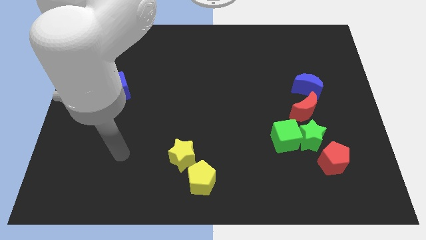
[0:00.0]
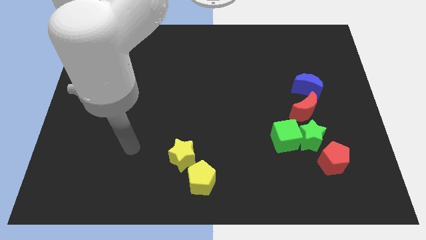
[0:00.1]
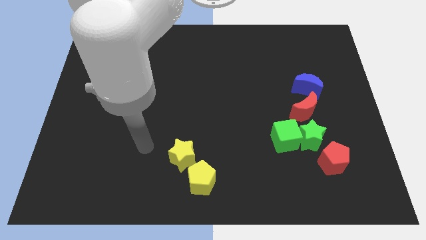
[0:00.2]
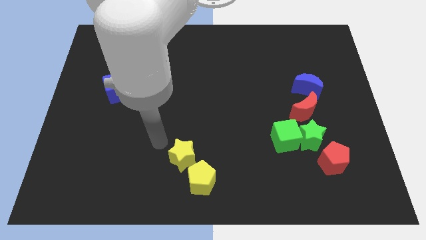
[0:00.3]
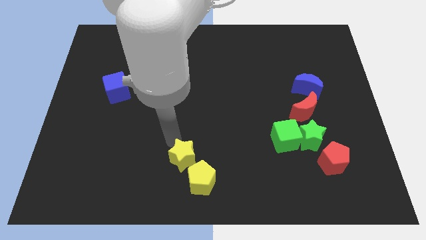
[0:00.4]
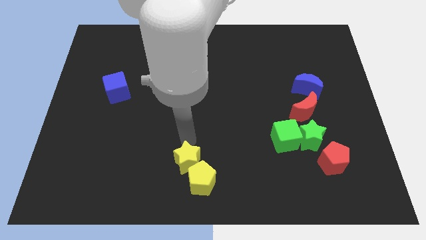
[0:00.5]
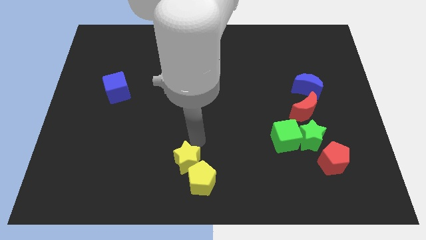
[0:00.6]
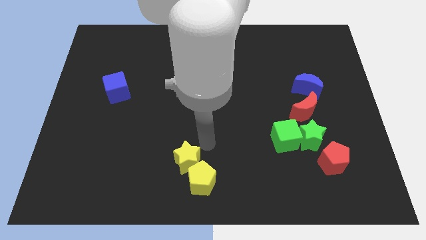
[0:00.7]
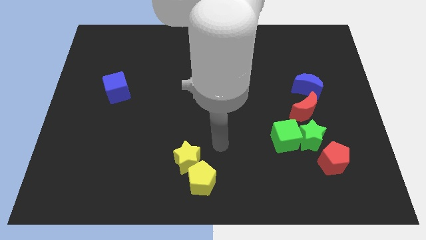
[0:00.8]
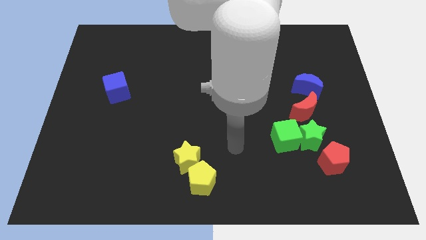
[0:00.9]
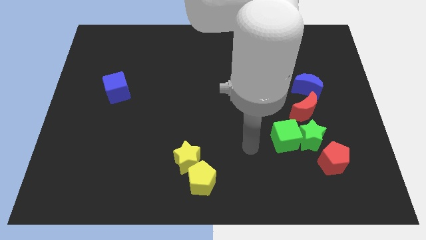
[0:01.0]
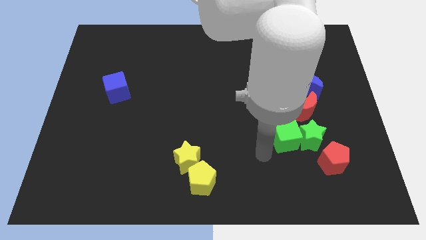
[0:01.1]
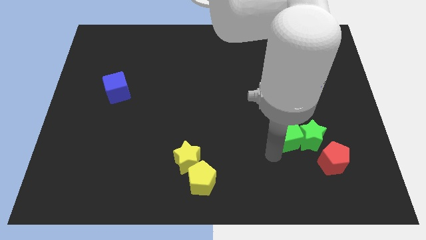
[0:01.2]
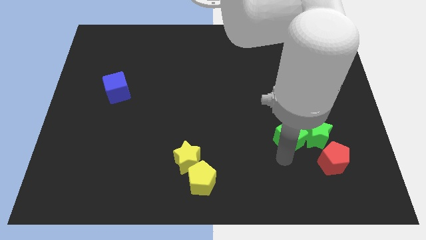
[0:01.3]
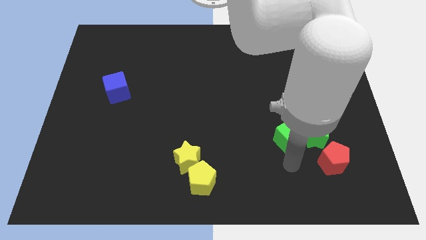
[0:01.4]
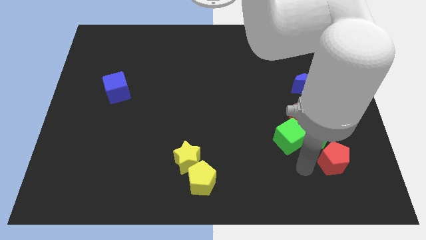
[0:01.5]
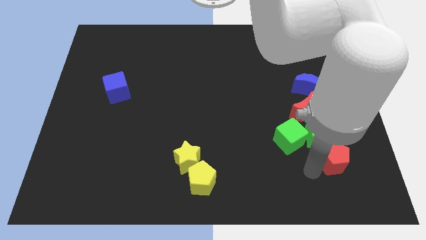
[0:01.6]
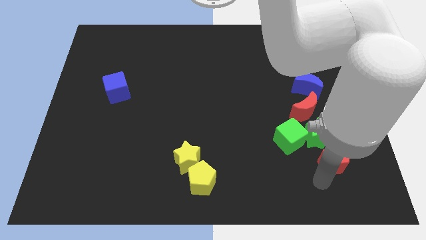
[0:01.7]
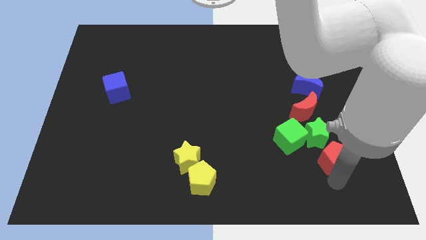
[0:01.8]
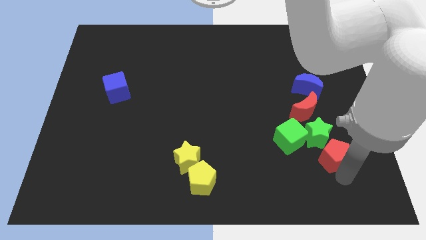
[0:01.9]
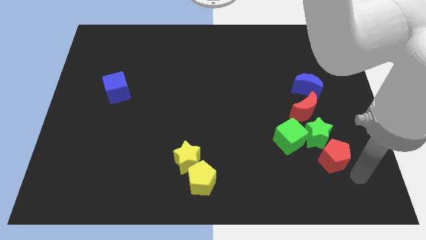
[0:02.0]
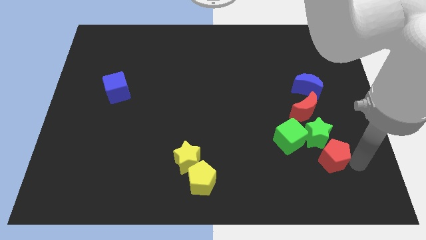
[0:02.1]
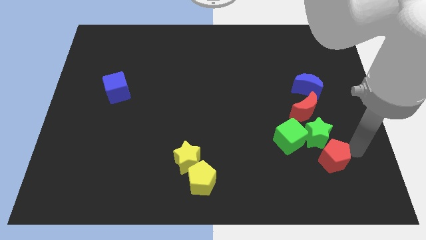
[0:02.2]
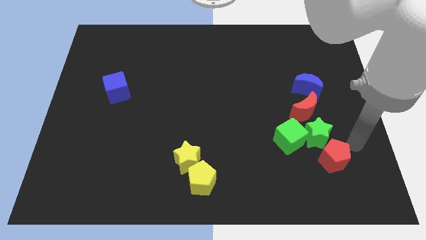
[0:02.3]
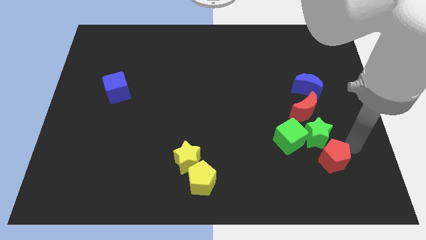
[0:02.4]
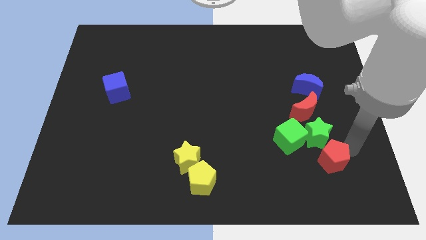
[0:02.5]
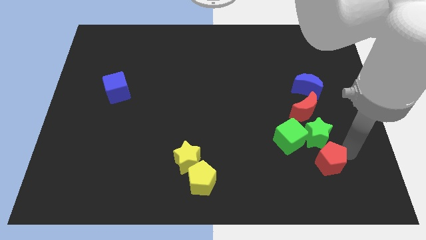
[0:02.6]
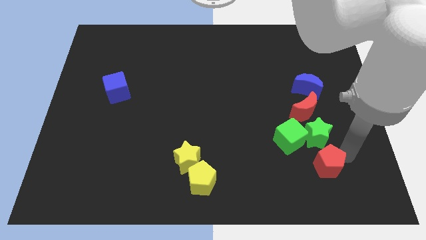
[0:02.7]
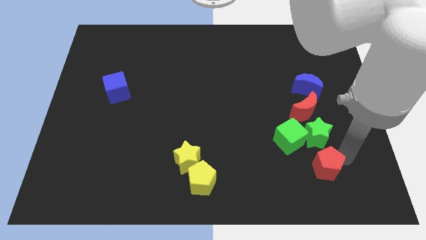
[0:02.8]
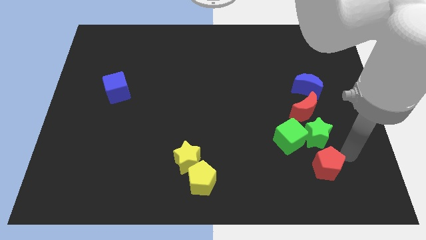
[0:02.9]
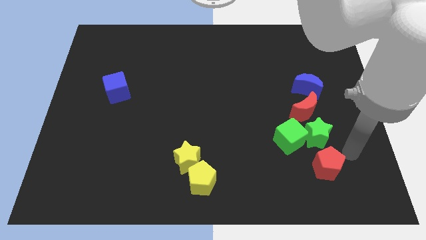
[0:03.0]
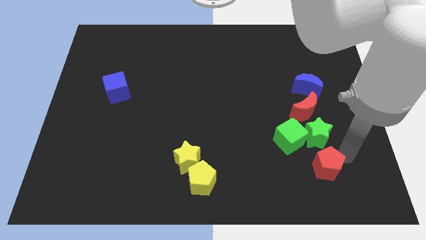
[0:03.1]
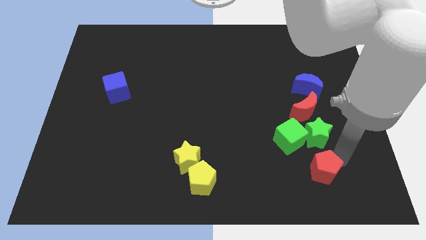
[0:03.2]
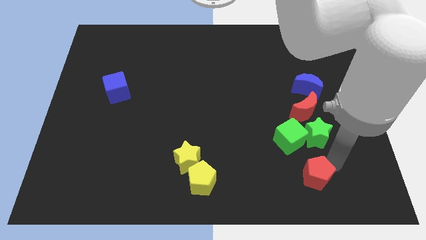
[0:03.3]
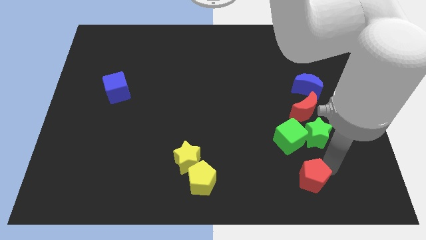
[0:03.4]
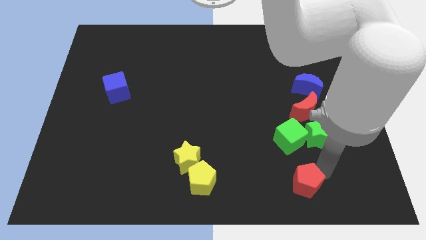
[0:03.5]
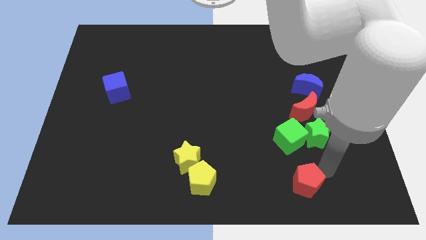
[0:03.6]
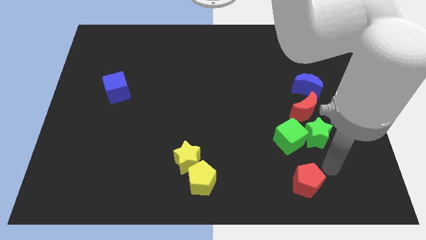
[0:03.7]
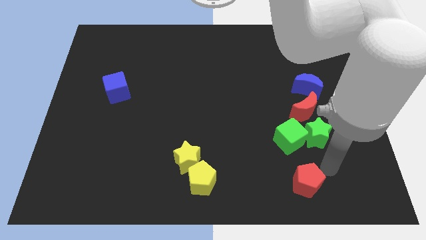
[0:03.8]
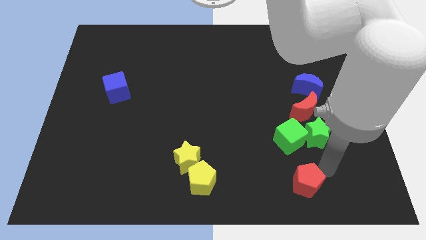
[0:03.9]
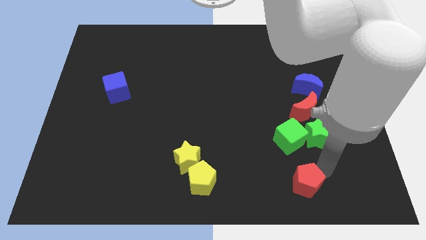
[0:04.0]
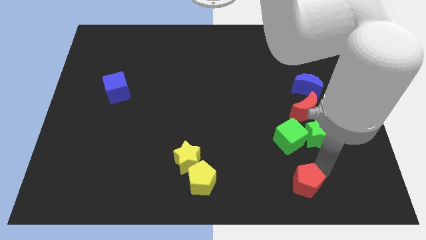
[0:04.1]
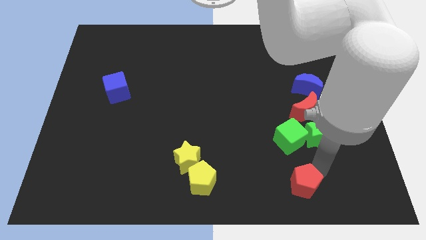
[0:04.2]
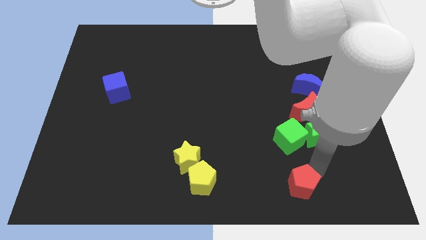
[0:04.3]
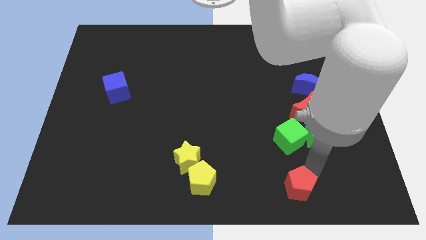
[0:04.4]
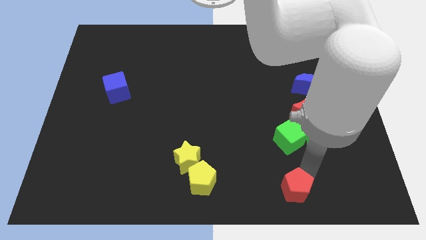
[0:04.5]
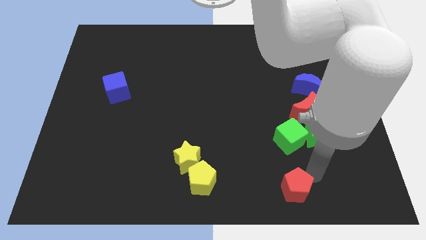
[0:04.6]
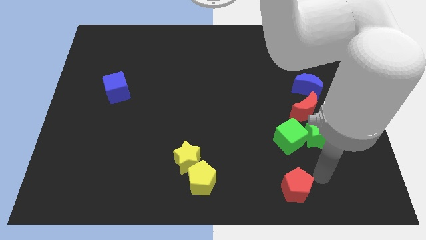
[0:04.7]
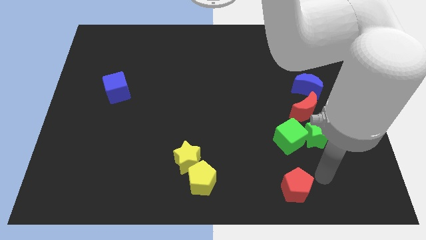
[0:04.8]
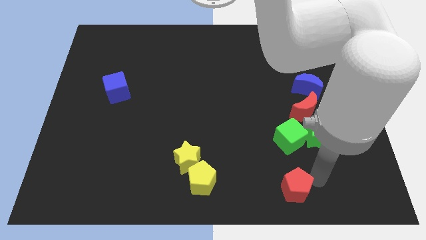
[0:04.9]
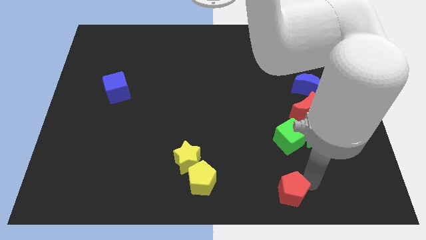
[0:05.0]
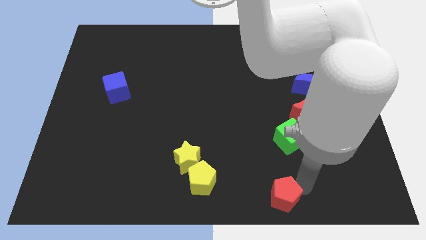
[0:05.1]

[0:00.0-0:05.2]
push the red pentagon to the bottom side
